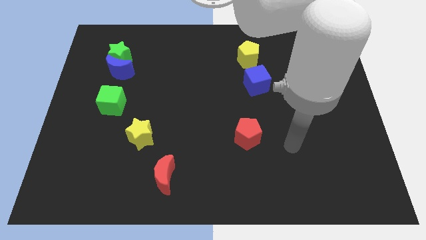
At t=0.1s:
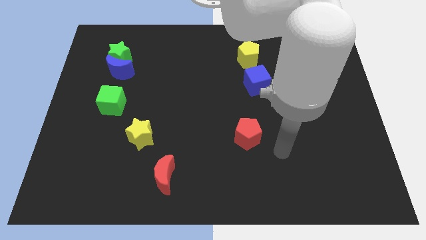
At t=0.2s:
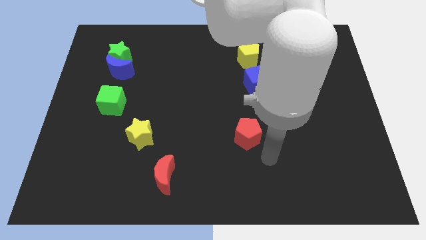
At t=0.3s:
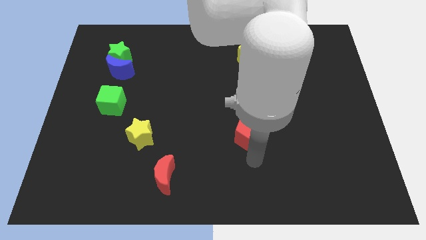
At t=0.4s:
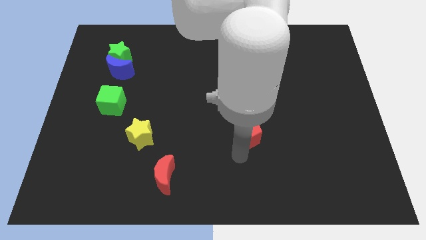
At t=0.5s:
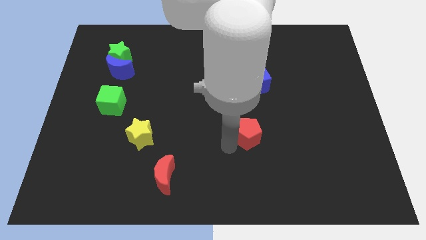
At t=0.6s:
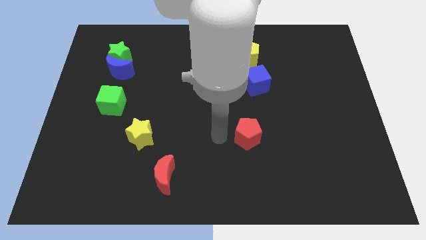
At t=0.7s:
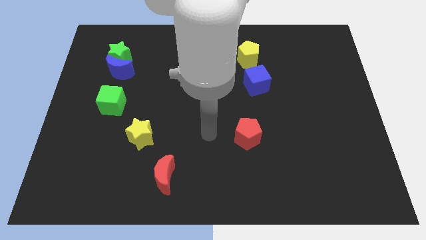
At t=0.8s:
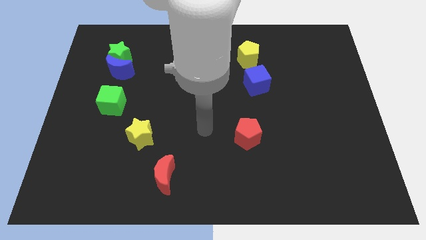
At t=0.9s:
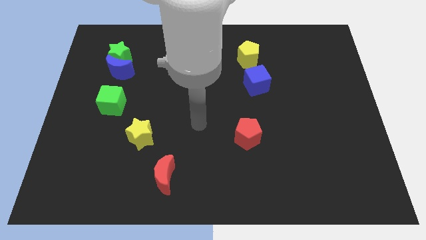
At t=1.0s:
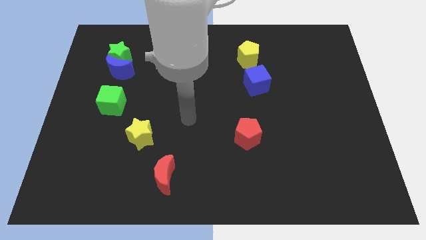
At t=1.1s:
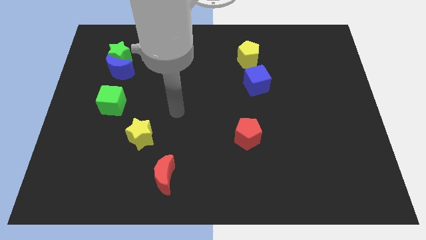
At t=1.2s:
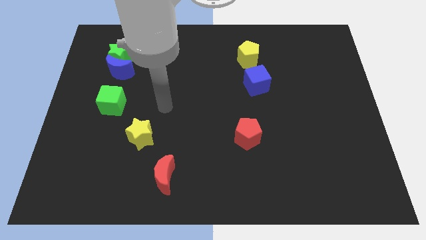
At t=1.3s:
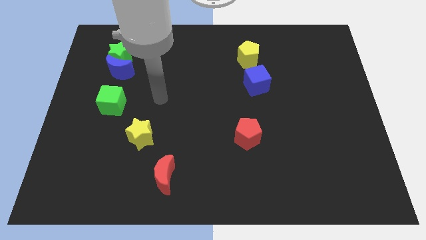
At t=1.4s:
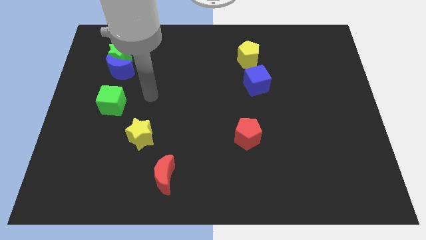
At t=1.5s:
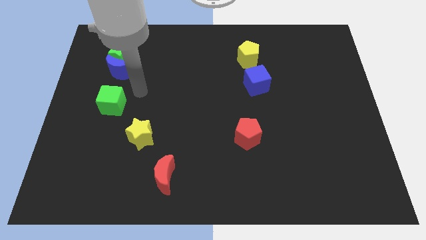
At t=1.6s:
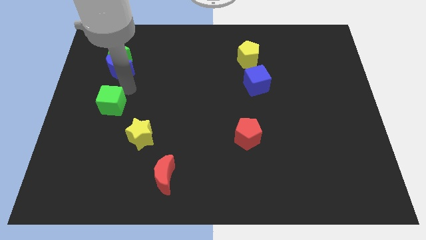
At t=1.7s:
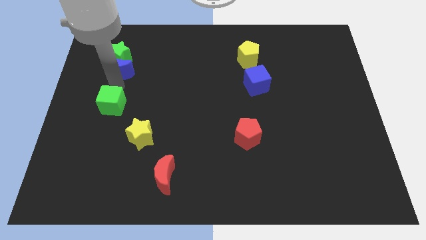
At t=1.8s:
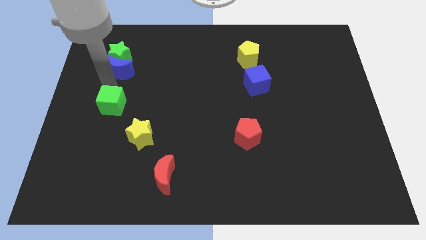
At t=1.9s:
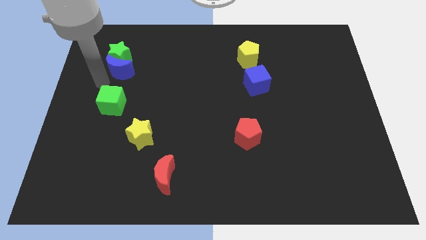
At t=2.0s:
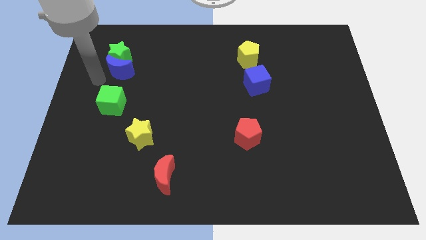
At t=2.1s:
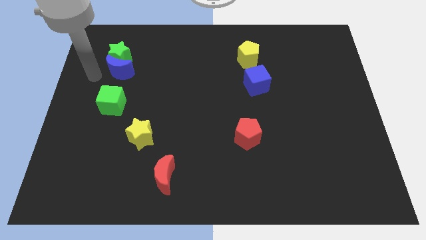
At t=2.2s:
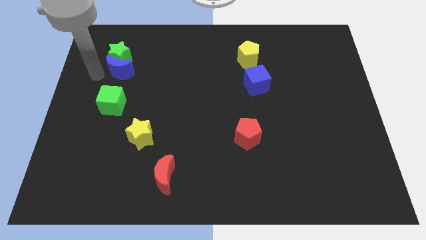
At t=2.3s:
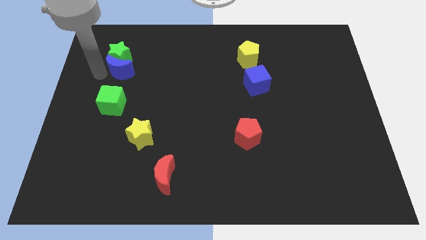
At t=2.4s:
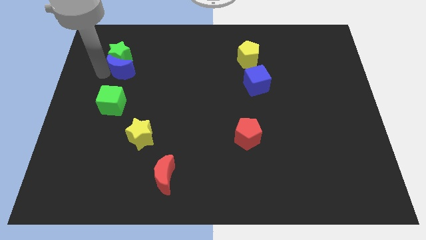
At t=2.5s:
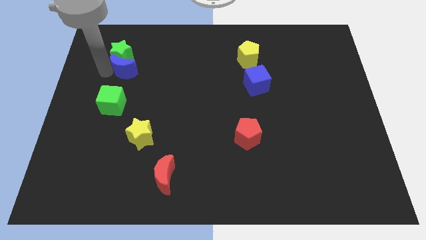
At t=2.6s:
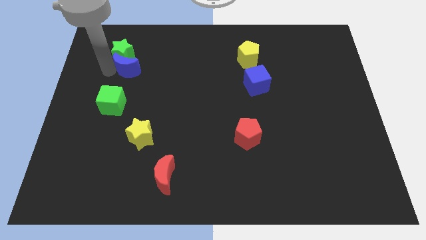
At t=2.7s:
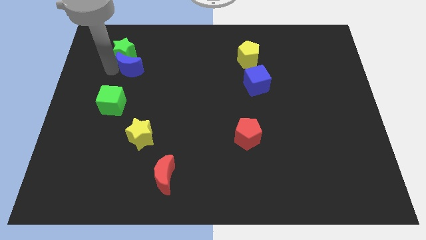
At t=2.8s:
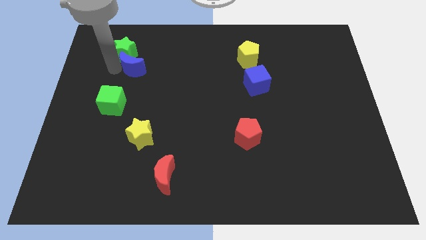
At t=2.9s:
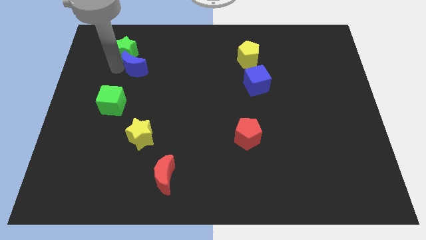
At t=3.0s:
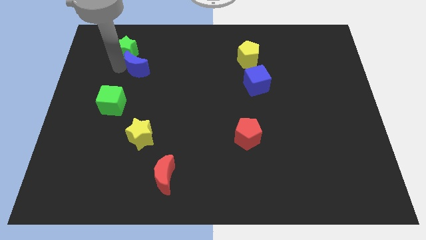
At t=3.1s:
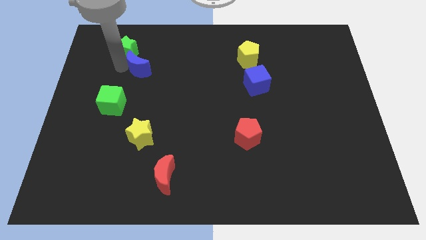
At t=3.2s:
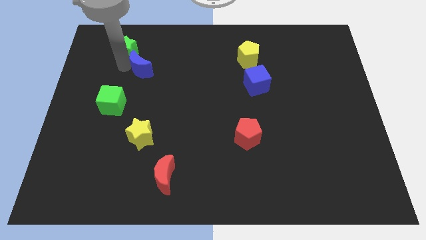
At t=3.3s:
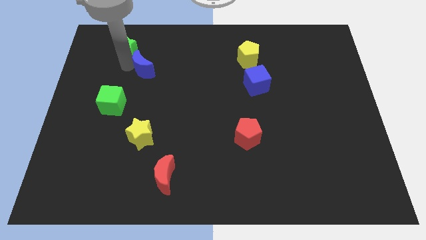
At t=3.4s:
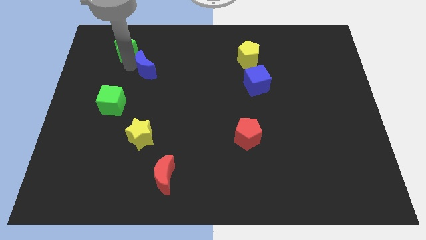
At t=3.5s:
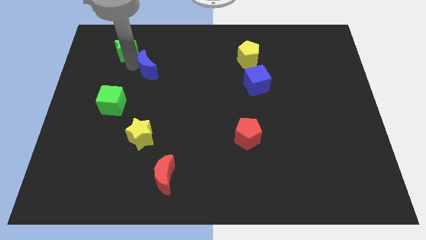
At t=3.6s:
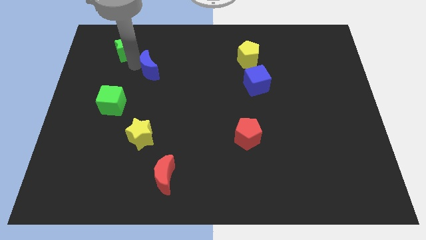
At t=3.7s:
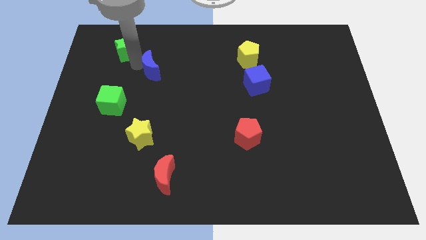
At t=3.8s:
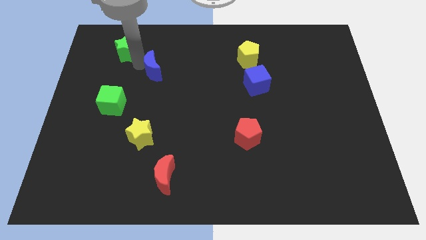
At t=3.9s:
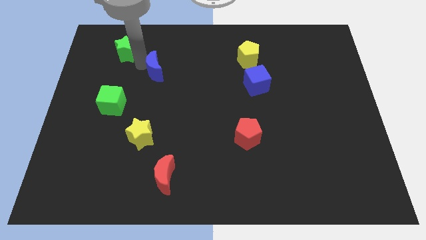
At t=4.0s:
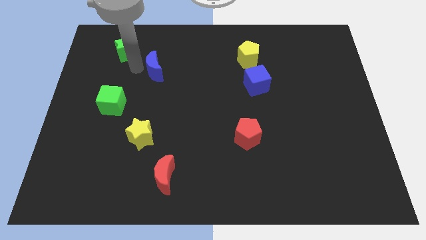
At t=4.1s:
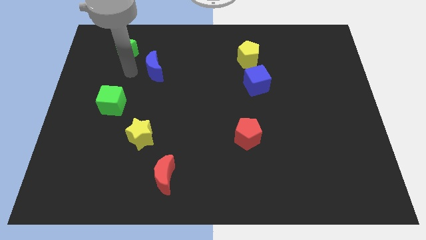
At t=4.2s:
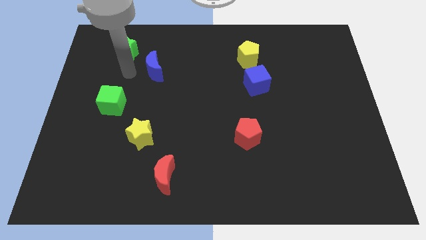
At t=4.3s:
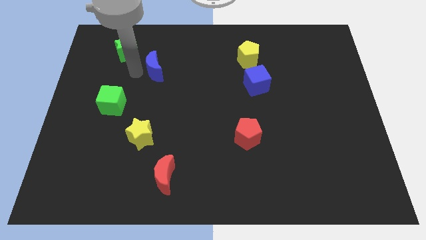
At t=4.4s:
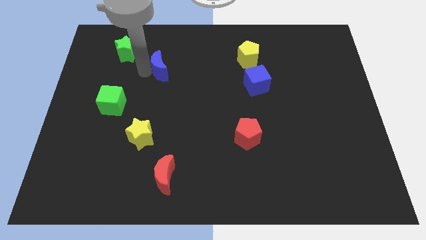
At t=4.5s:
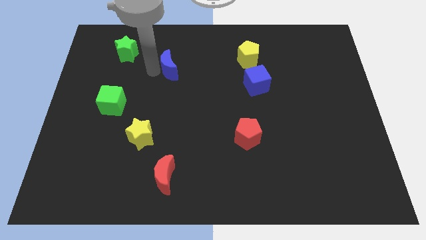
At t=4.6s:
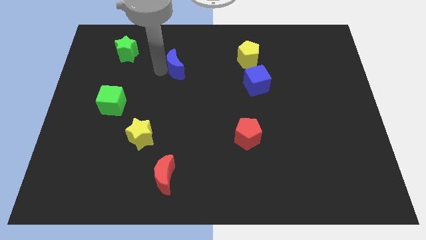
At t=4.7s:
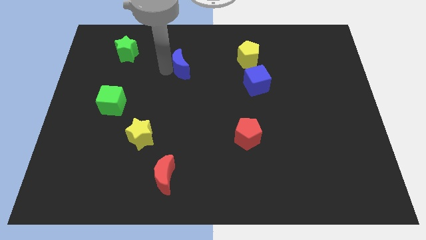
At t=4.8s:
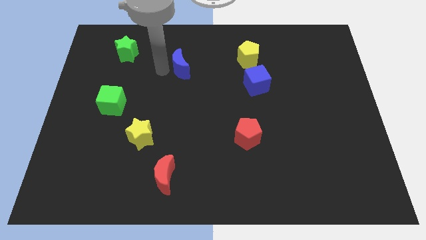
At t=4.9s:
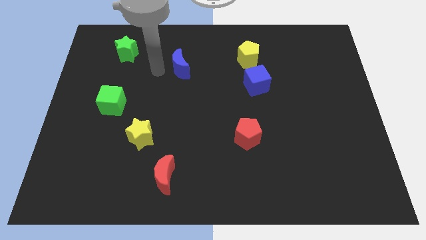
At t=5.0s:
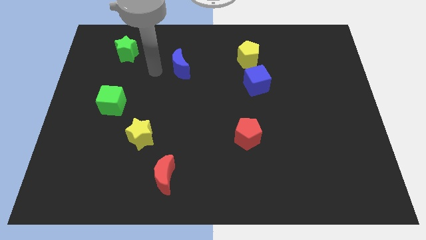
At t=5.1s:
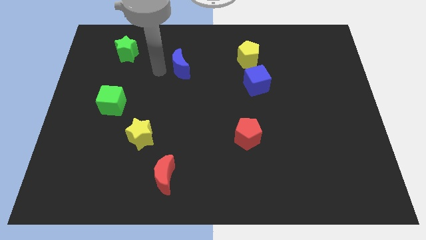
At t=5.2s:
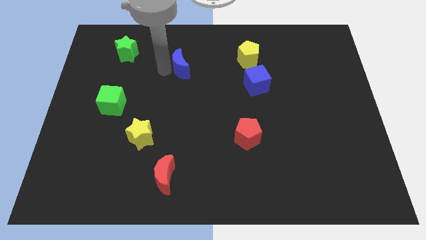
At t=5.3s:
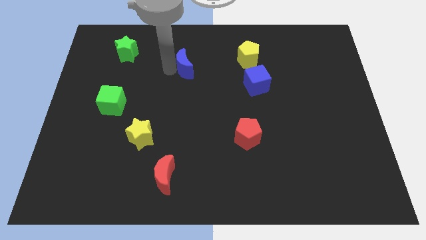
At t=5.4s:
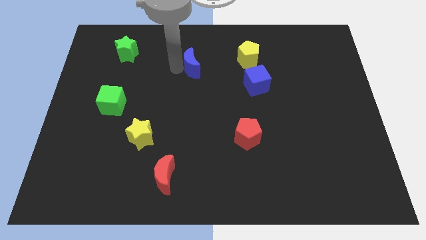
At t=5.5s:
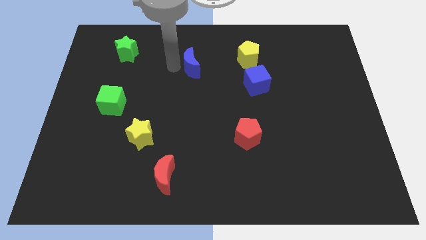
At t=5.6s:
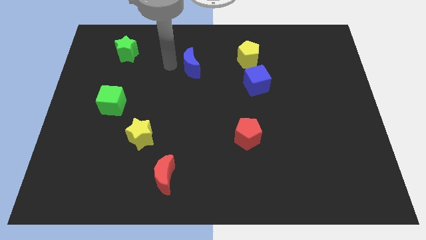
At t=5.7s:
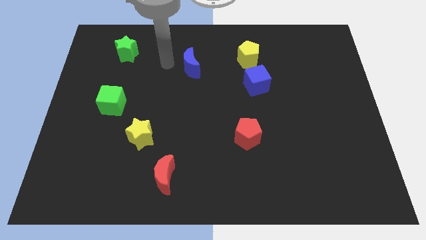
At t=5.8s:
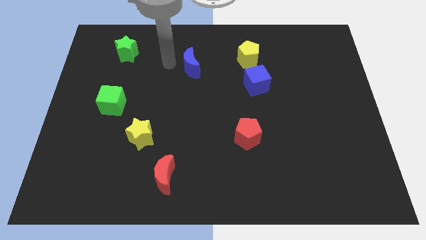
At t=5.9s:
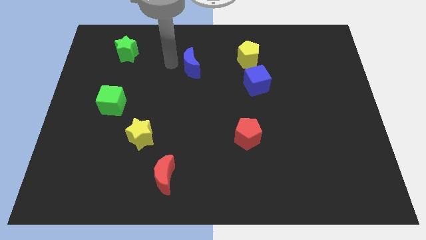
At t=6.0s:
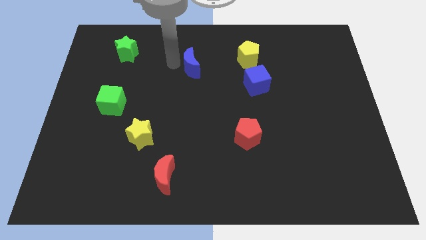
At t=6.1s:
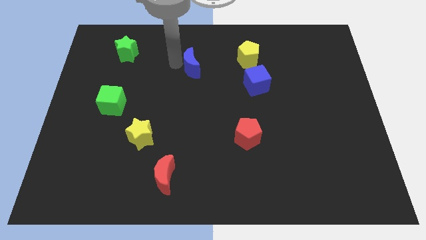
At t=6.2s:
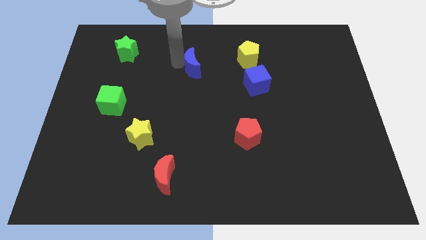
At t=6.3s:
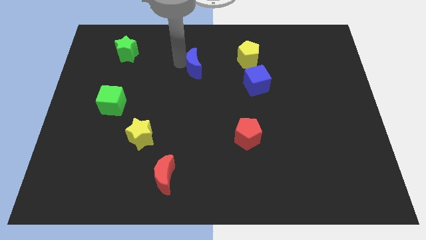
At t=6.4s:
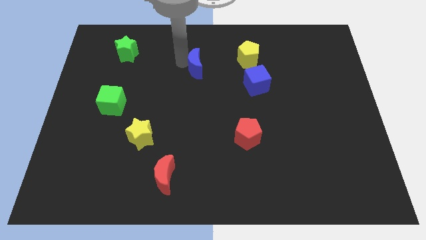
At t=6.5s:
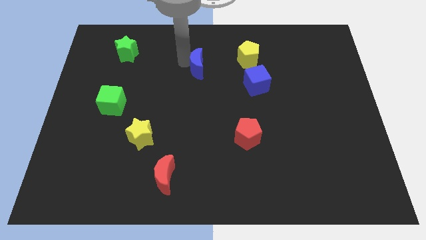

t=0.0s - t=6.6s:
move the blue moon to the right

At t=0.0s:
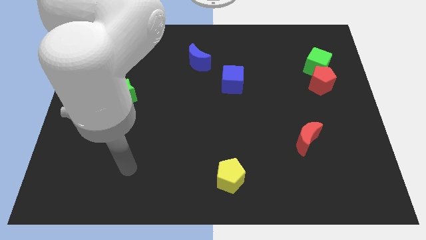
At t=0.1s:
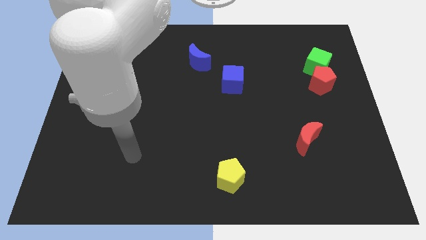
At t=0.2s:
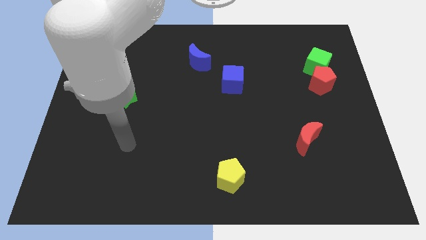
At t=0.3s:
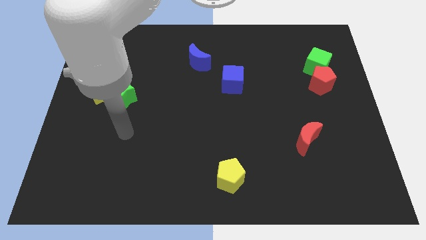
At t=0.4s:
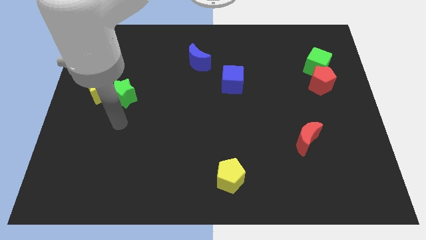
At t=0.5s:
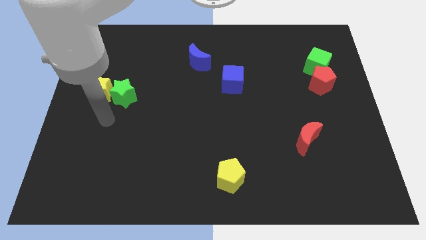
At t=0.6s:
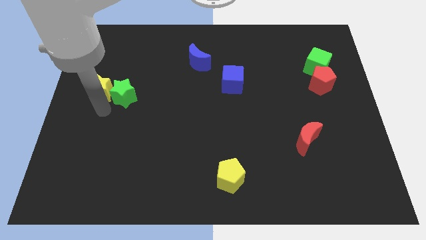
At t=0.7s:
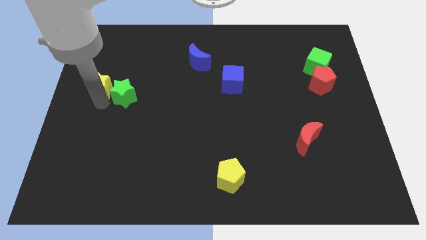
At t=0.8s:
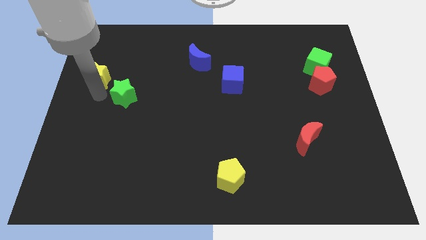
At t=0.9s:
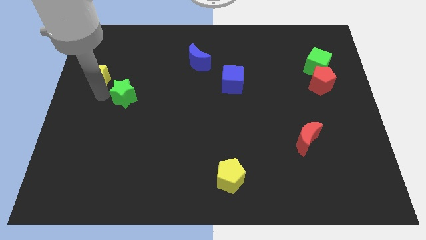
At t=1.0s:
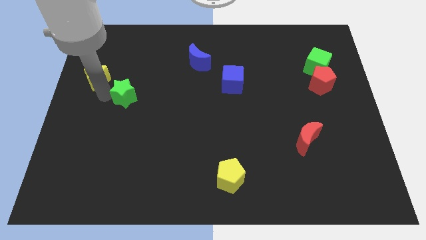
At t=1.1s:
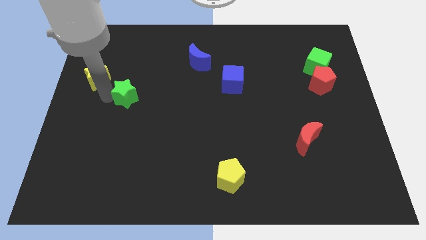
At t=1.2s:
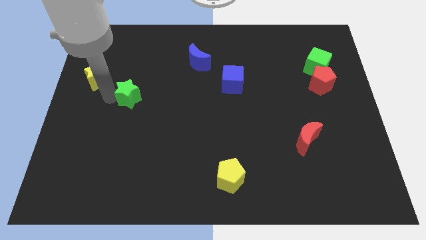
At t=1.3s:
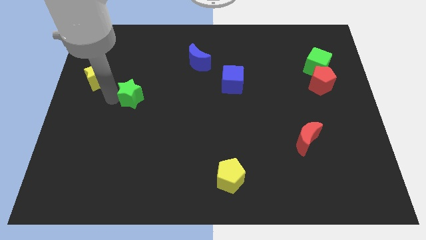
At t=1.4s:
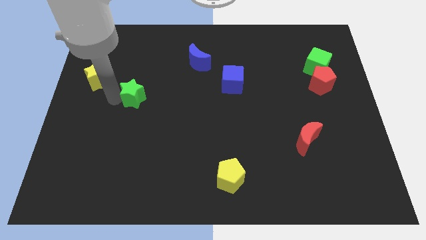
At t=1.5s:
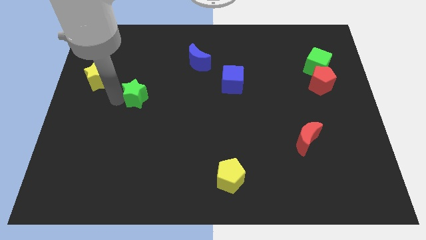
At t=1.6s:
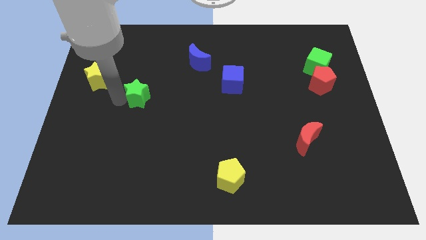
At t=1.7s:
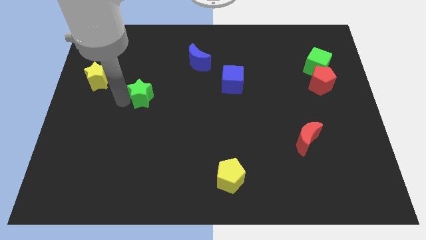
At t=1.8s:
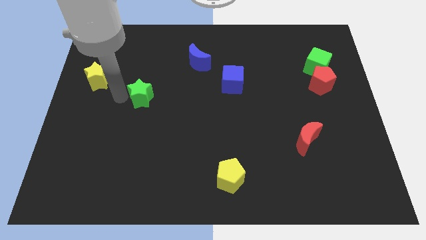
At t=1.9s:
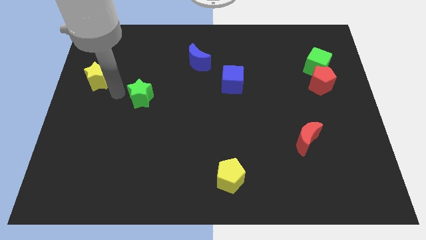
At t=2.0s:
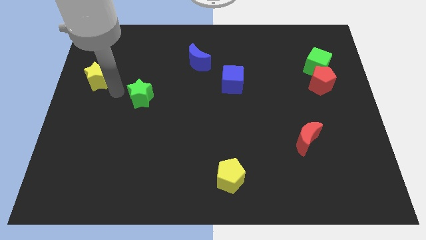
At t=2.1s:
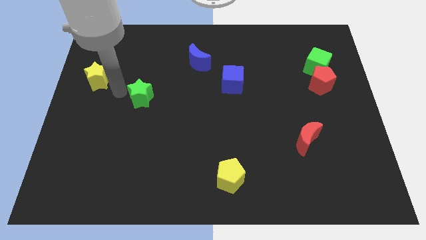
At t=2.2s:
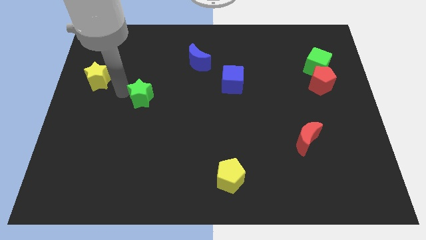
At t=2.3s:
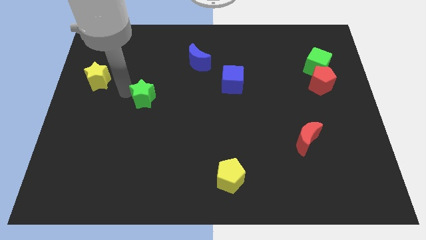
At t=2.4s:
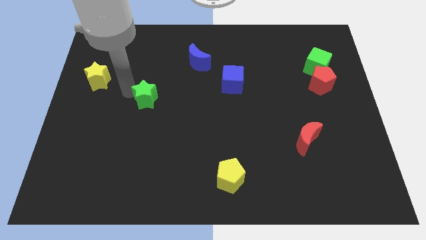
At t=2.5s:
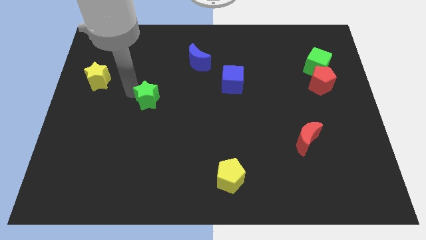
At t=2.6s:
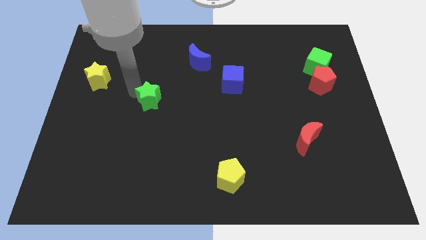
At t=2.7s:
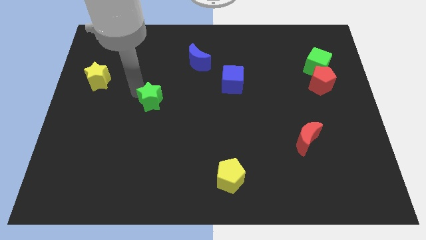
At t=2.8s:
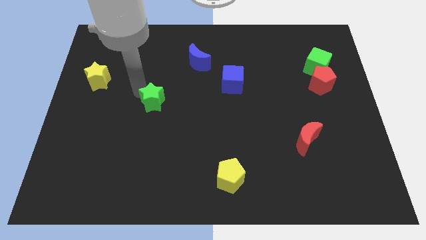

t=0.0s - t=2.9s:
slightly move the green star to the right
